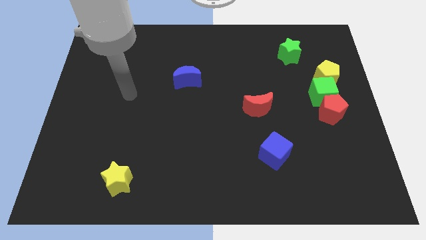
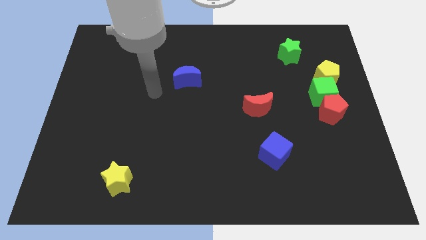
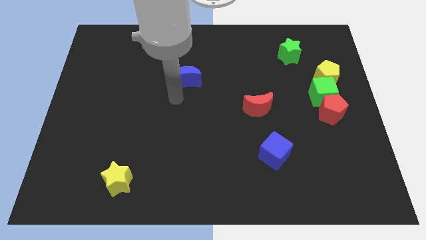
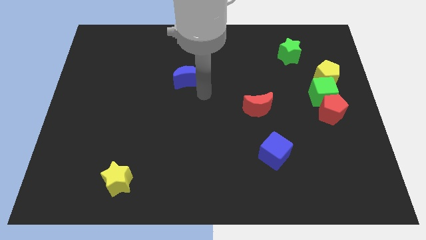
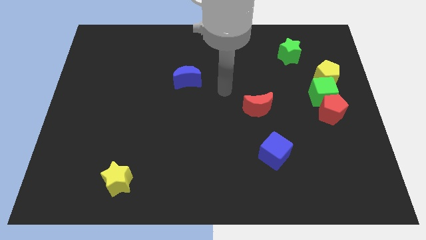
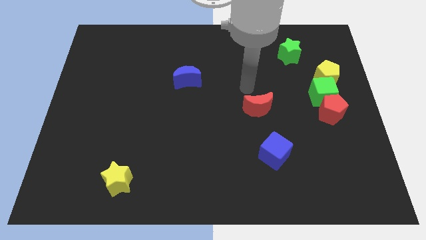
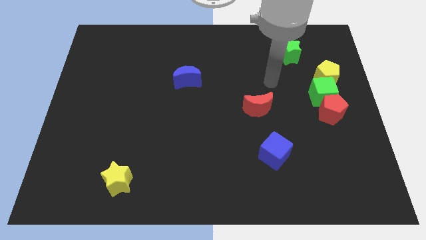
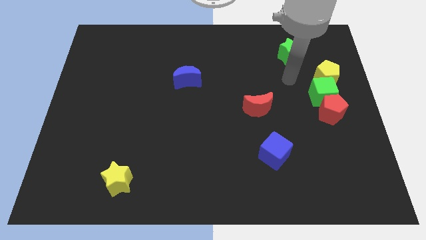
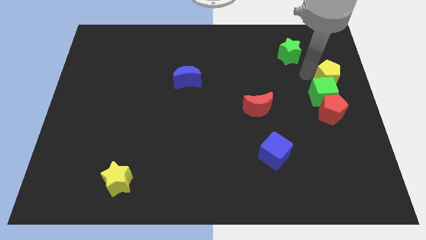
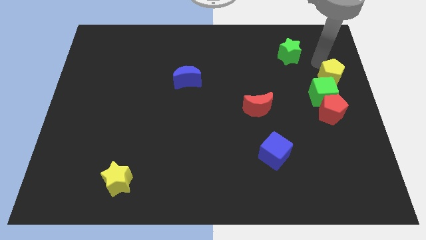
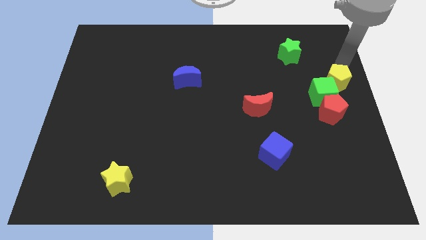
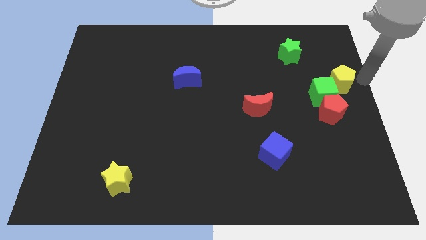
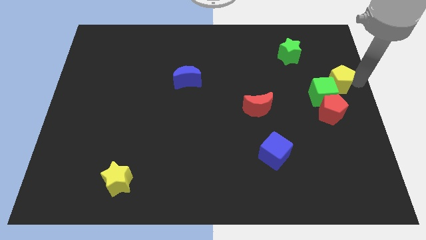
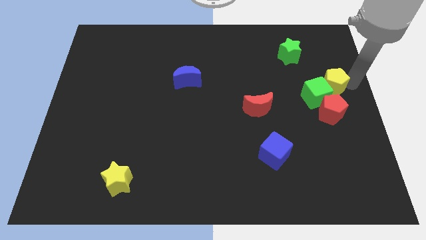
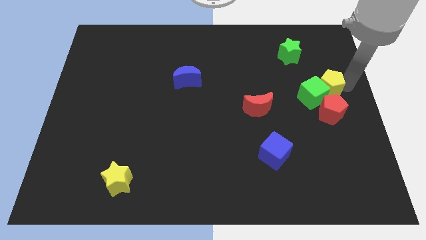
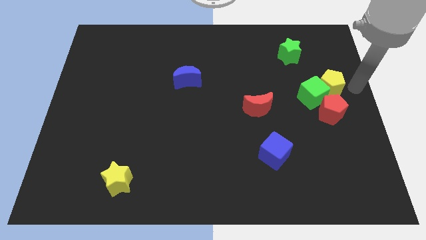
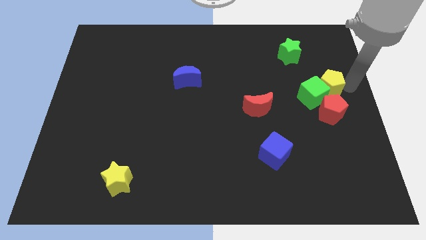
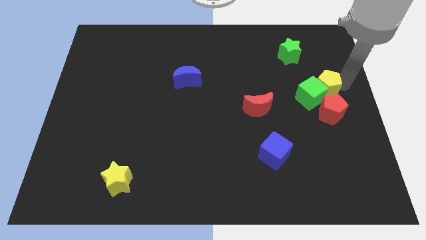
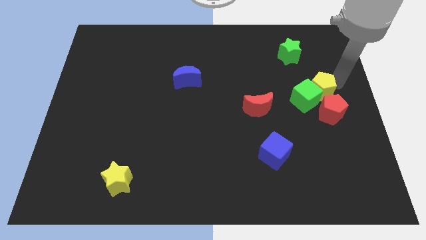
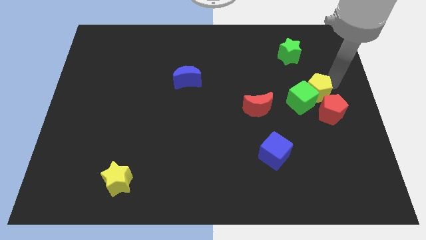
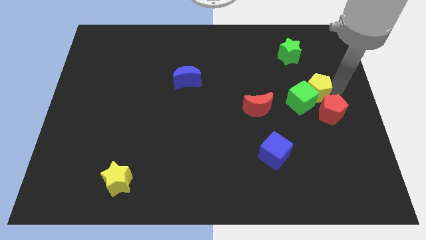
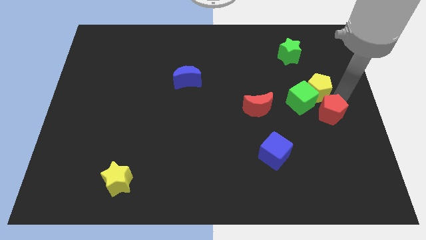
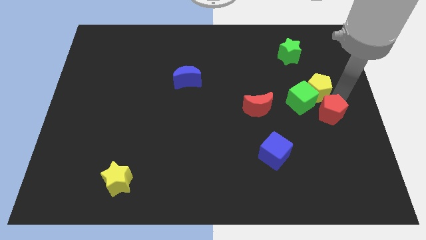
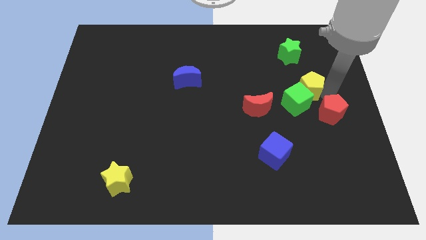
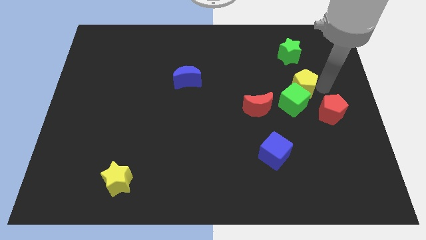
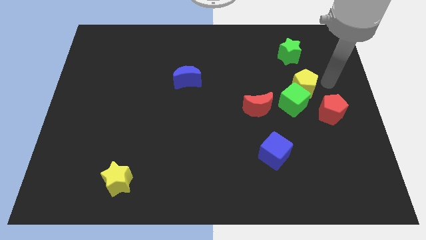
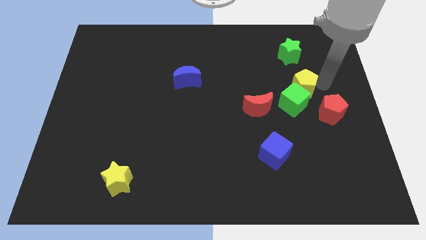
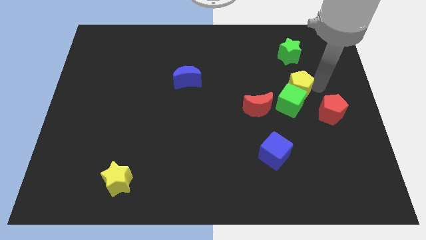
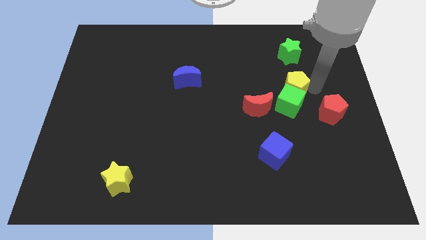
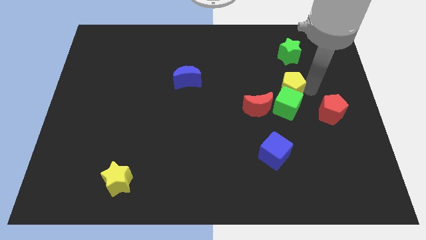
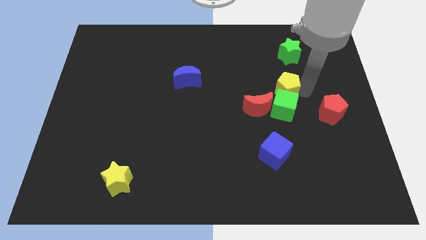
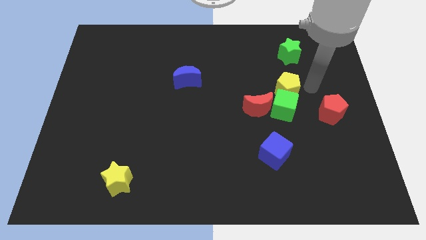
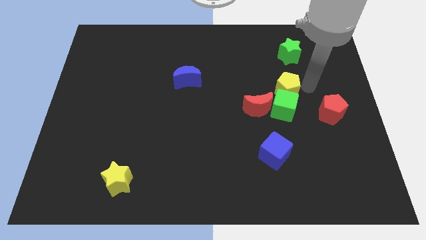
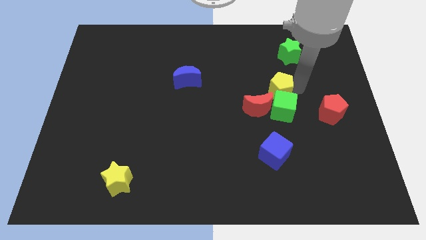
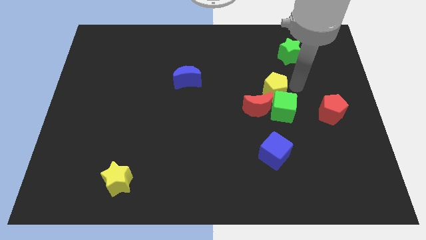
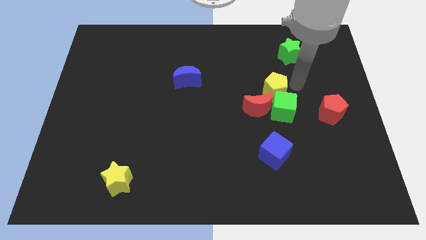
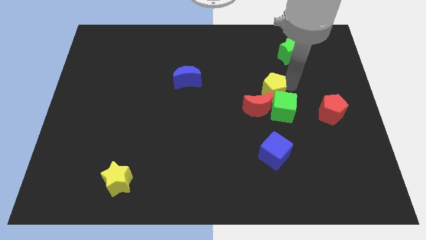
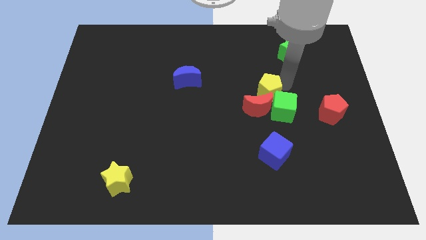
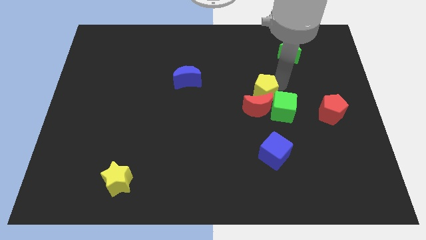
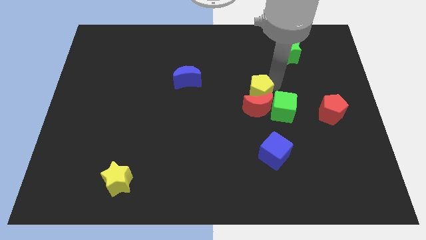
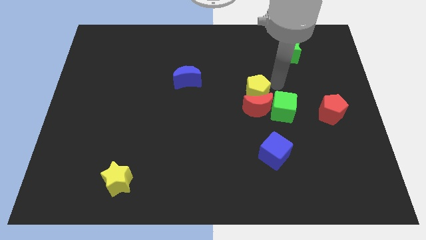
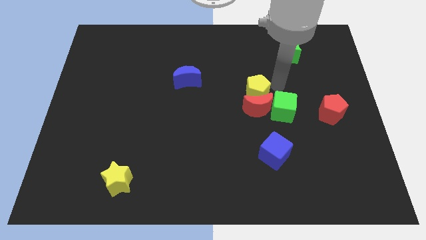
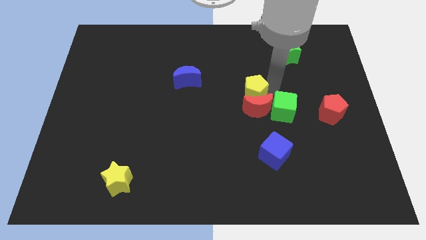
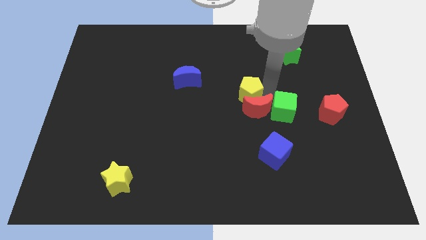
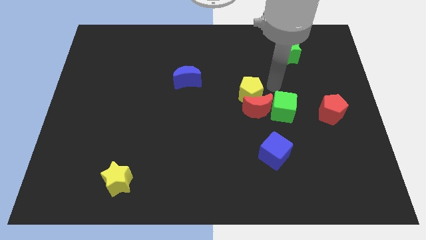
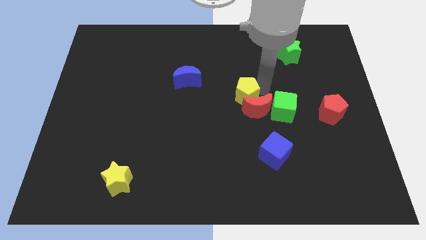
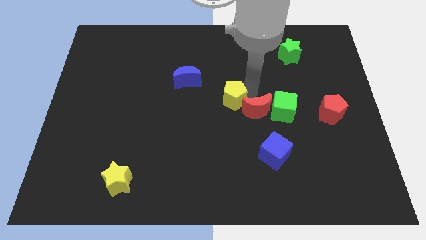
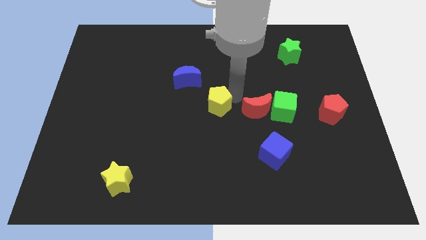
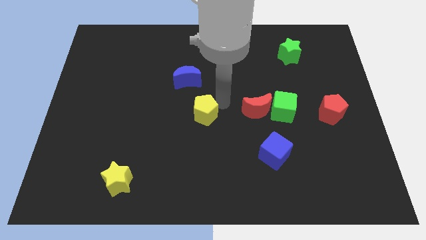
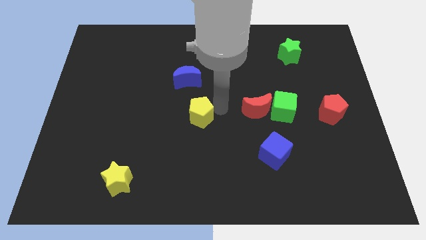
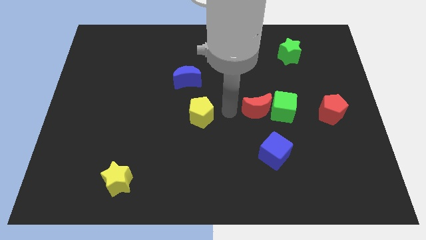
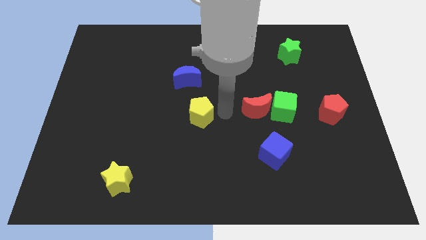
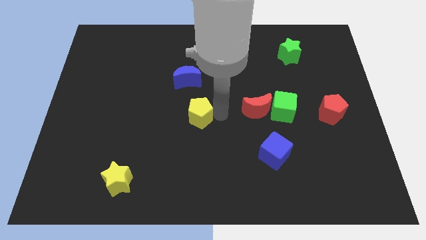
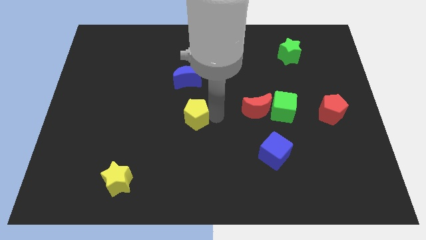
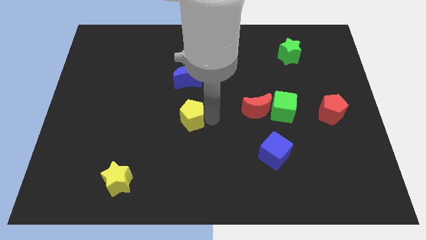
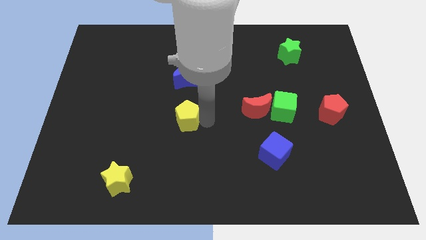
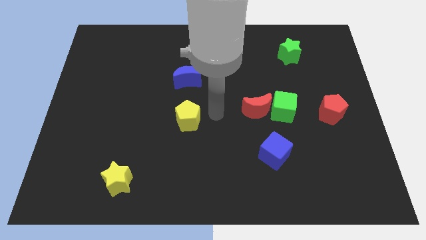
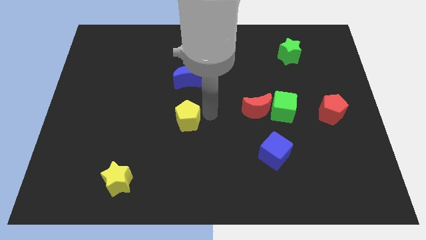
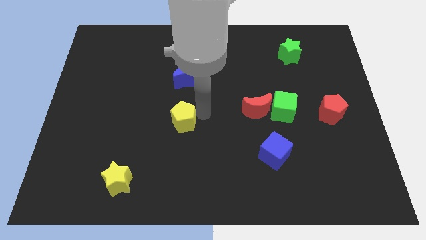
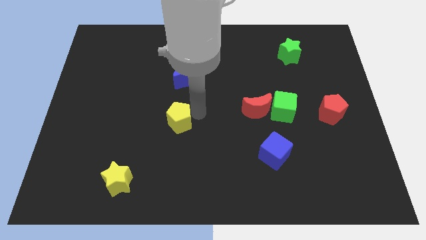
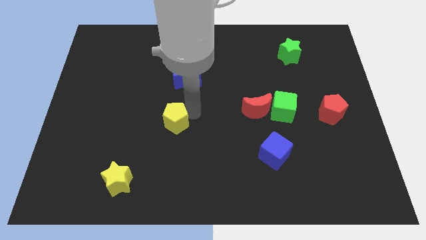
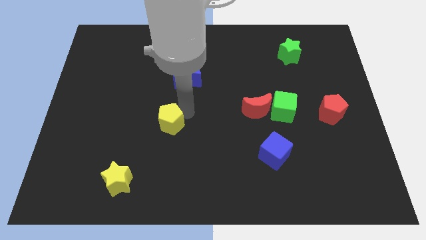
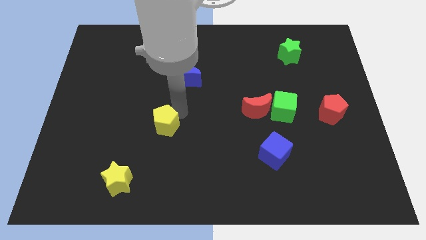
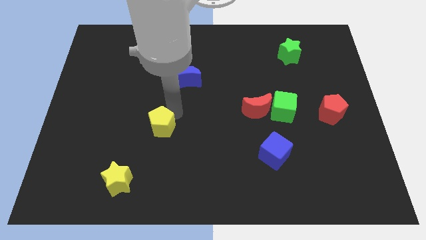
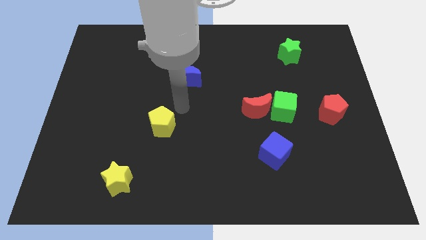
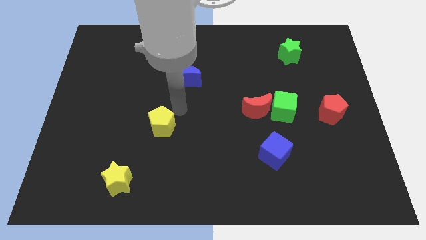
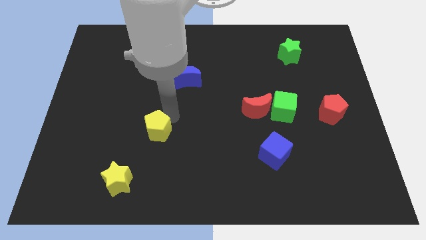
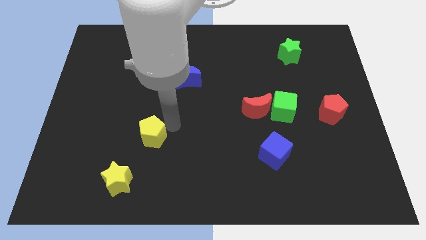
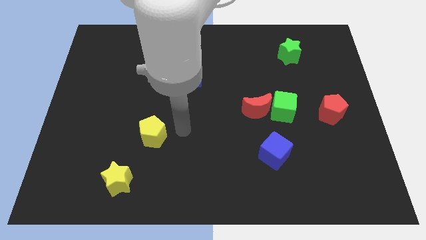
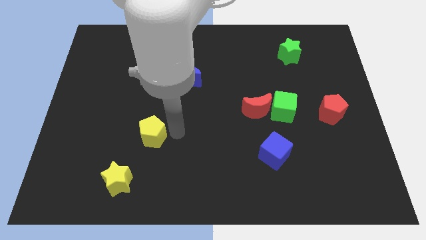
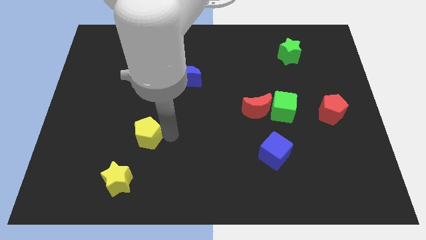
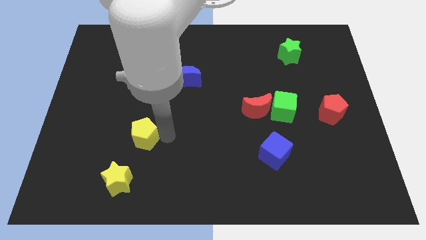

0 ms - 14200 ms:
put the yellow pentagon to the top side of the yellow star
